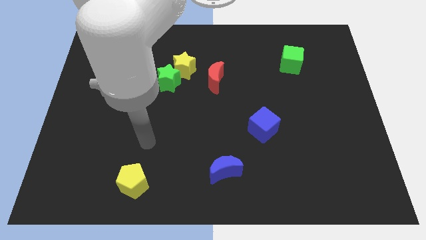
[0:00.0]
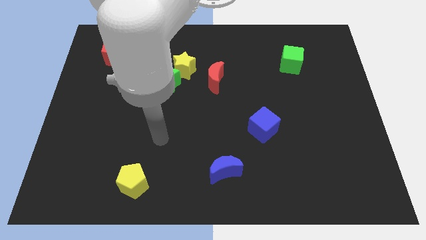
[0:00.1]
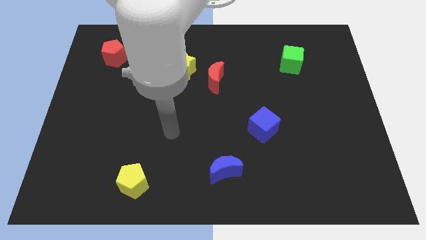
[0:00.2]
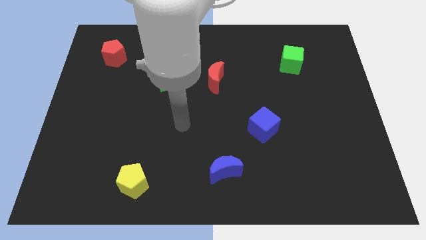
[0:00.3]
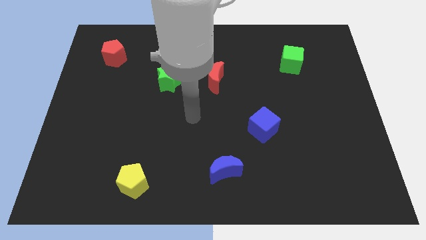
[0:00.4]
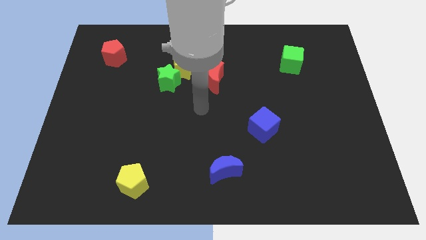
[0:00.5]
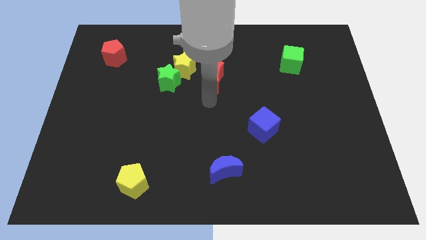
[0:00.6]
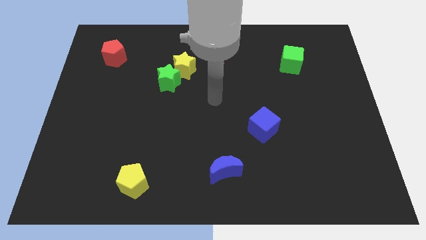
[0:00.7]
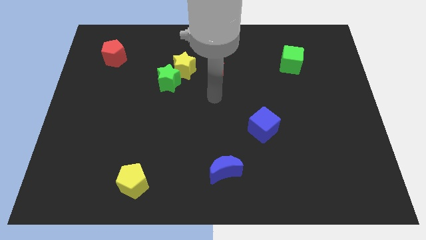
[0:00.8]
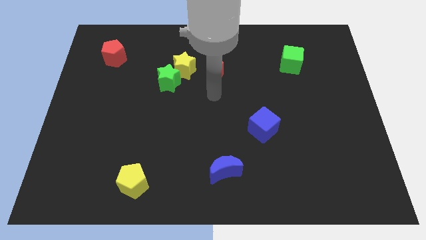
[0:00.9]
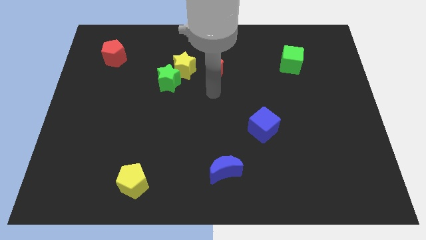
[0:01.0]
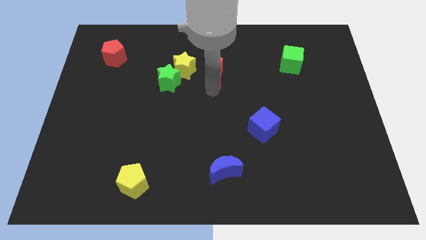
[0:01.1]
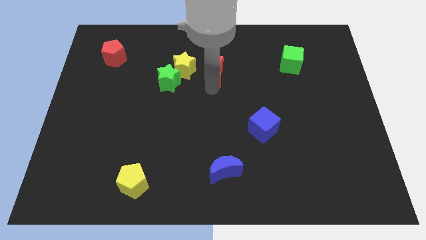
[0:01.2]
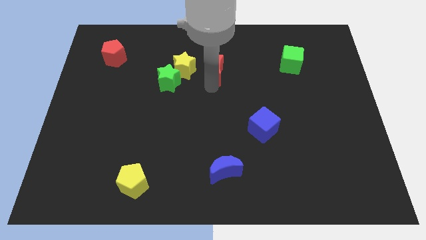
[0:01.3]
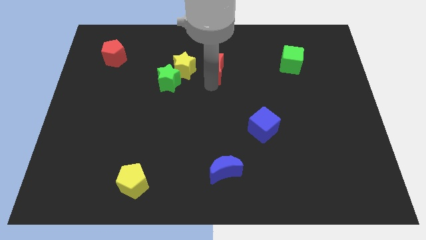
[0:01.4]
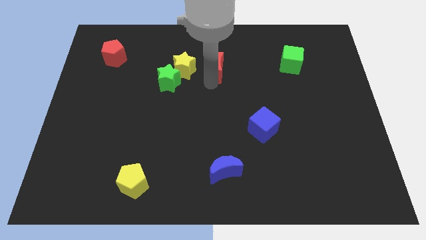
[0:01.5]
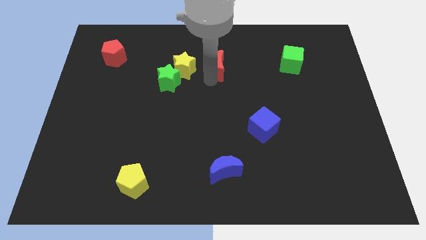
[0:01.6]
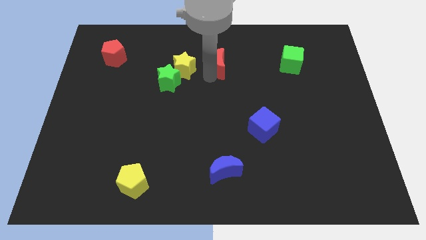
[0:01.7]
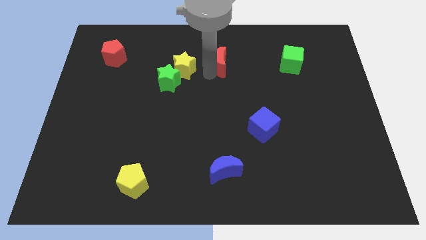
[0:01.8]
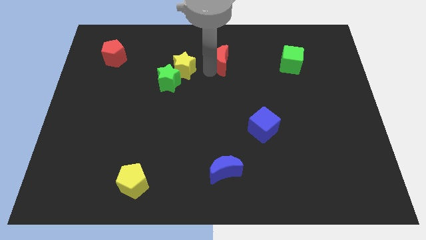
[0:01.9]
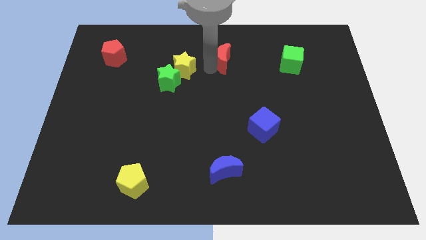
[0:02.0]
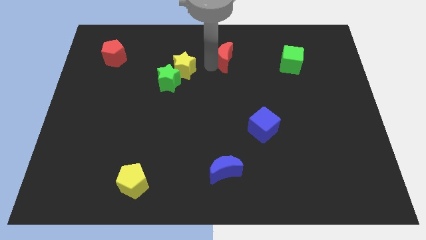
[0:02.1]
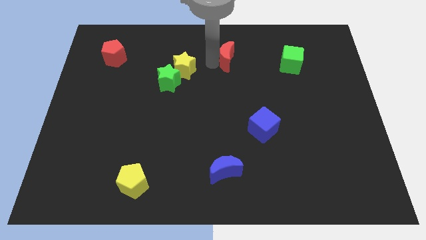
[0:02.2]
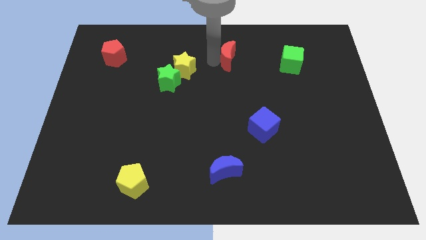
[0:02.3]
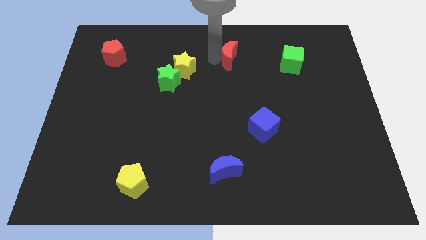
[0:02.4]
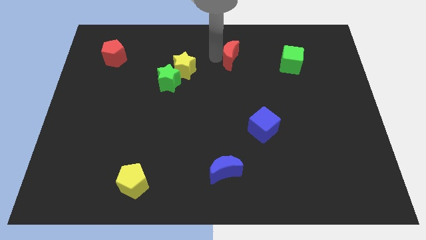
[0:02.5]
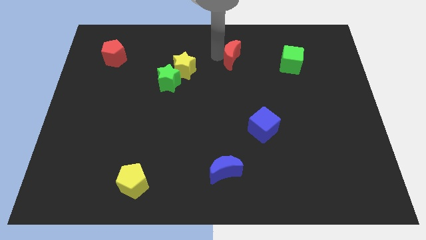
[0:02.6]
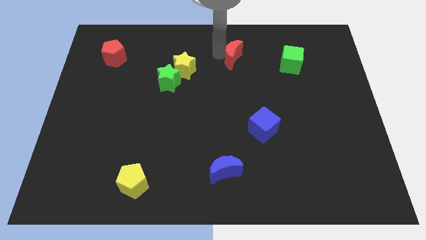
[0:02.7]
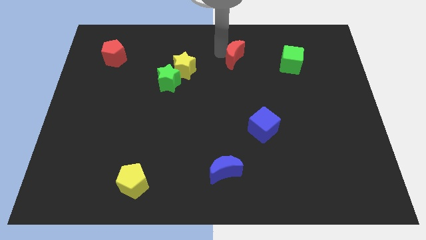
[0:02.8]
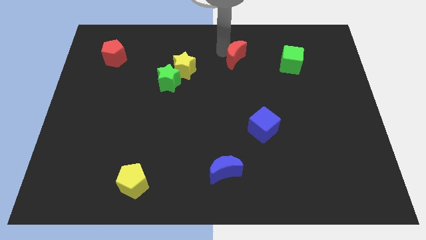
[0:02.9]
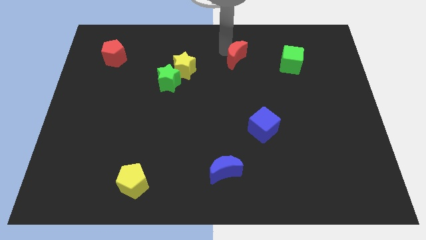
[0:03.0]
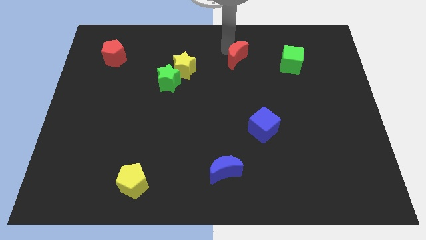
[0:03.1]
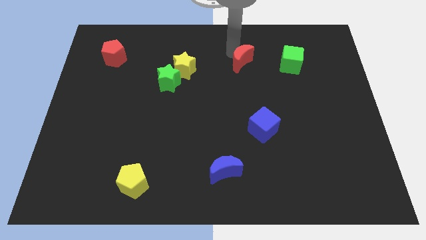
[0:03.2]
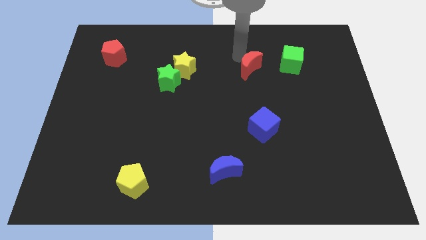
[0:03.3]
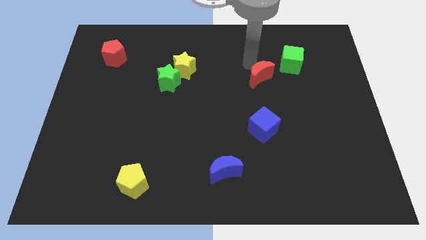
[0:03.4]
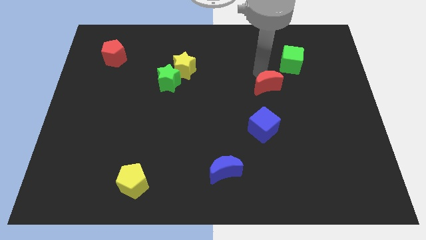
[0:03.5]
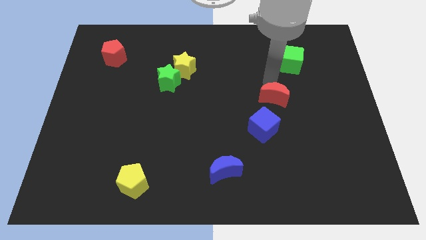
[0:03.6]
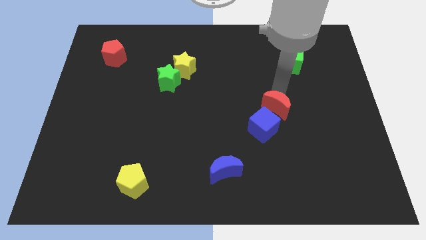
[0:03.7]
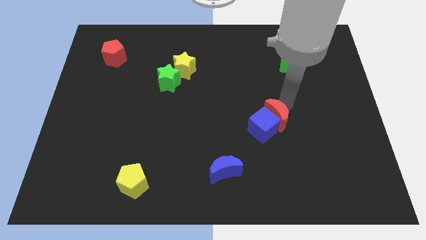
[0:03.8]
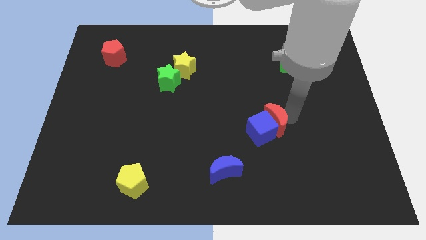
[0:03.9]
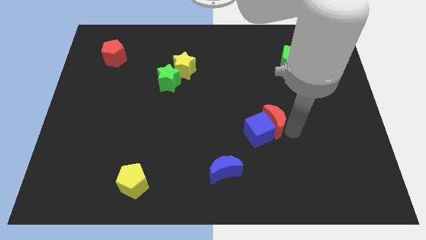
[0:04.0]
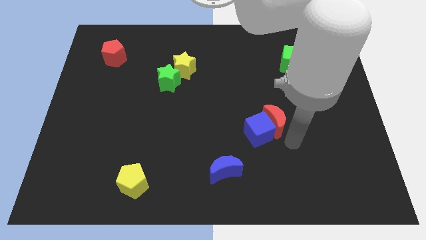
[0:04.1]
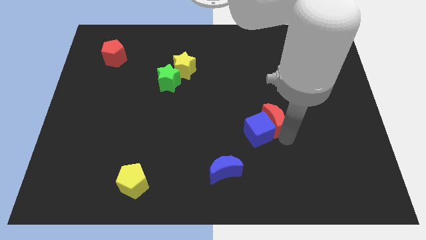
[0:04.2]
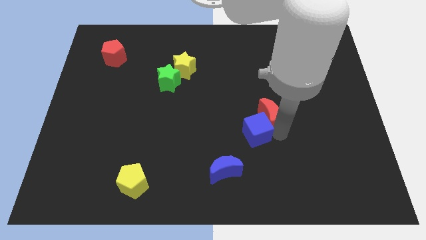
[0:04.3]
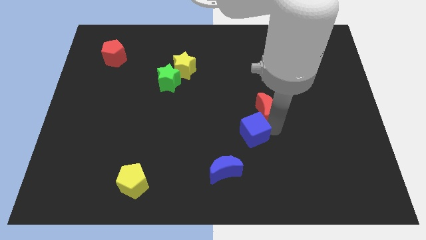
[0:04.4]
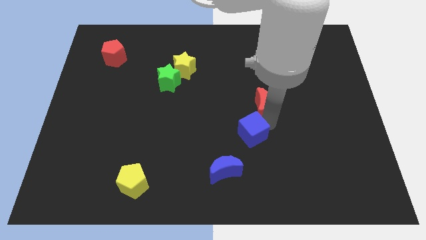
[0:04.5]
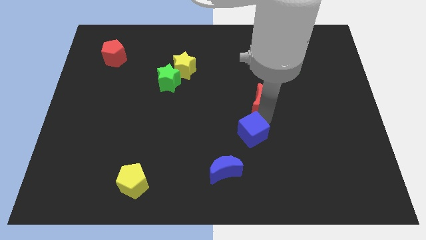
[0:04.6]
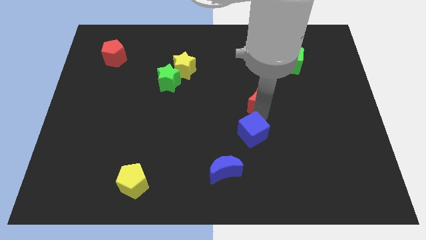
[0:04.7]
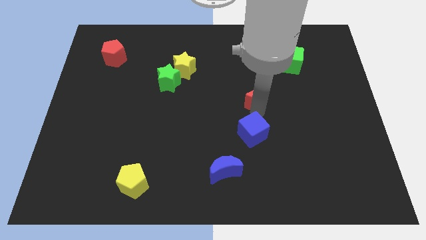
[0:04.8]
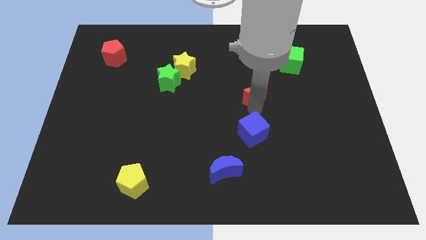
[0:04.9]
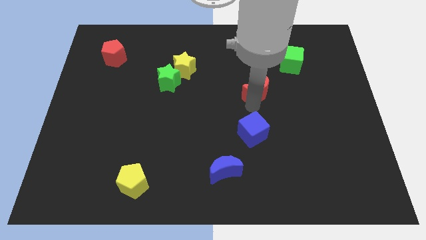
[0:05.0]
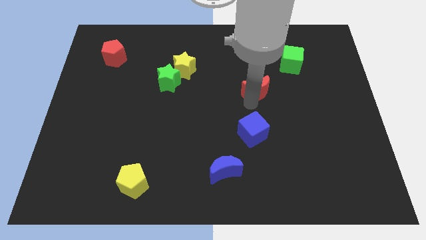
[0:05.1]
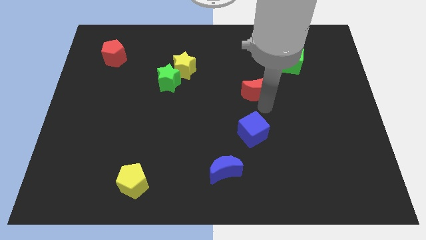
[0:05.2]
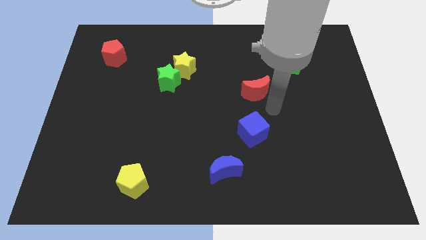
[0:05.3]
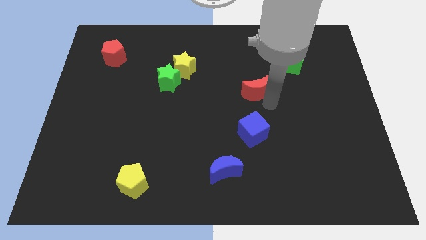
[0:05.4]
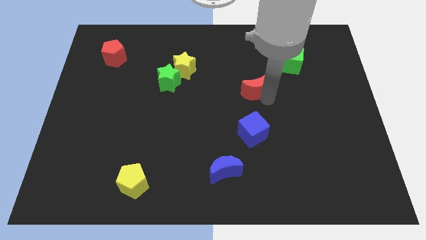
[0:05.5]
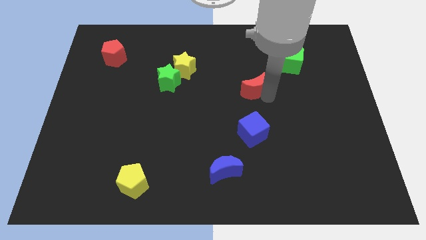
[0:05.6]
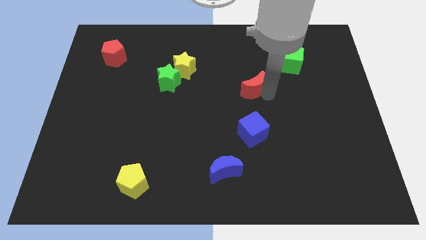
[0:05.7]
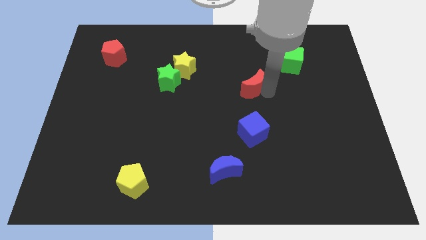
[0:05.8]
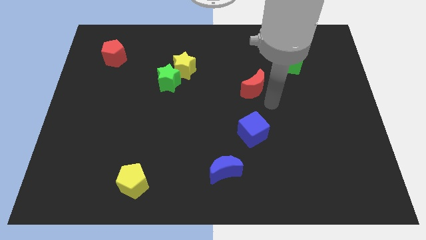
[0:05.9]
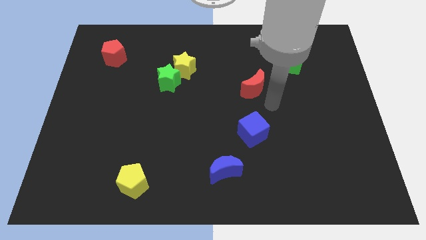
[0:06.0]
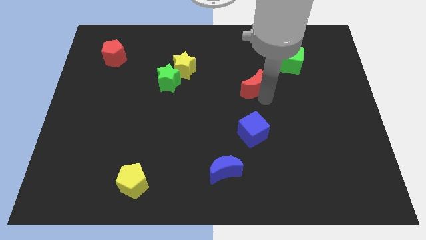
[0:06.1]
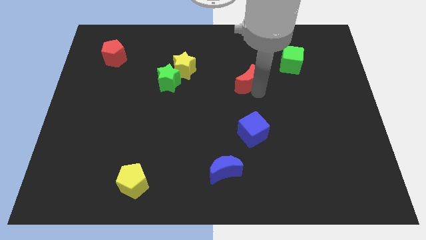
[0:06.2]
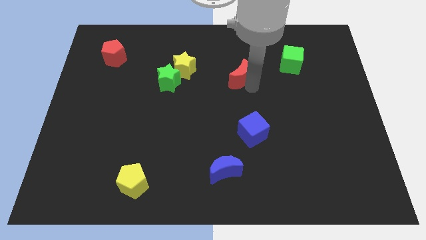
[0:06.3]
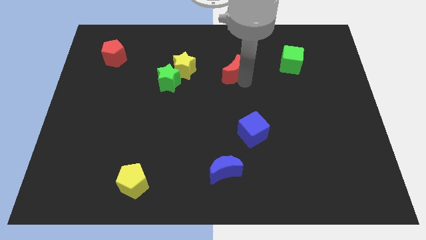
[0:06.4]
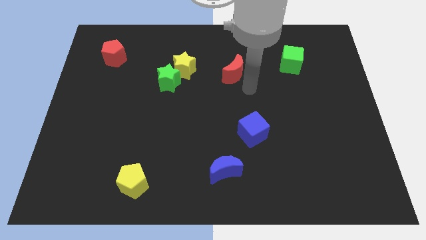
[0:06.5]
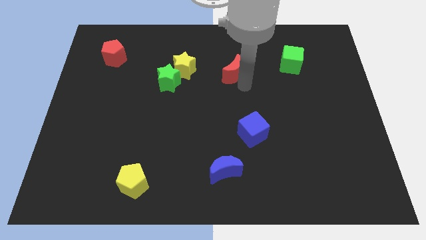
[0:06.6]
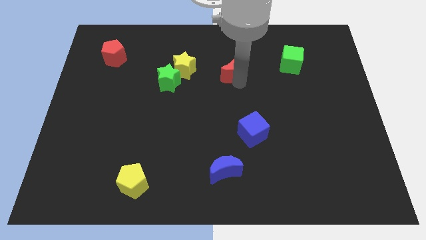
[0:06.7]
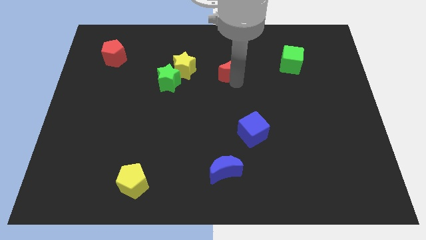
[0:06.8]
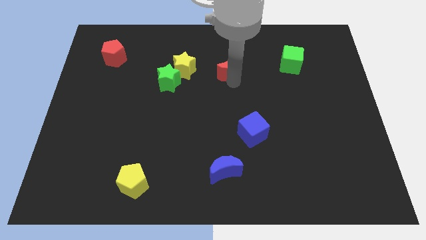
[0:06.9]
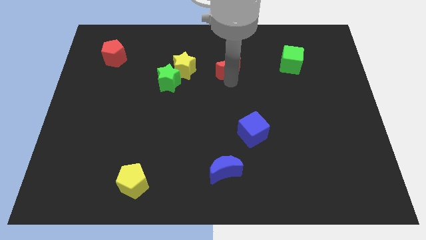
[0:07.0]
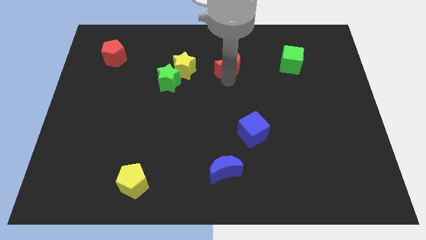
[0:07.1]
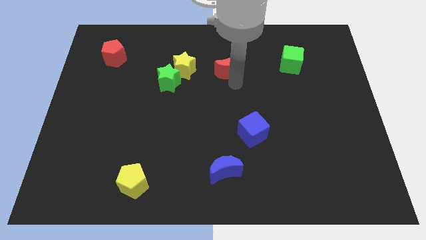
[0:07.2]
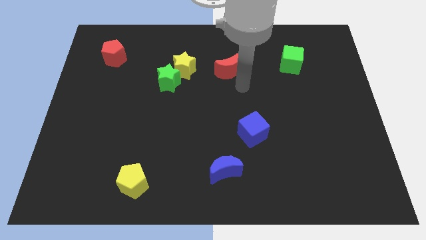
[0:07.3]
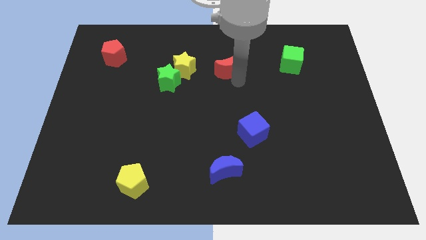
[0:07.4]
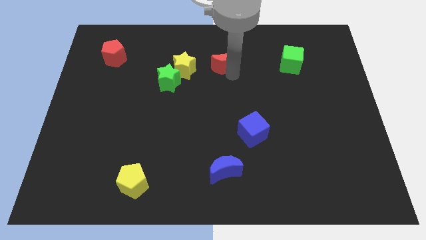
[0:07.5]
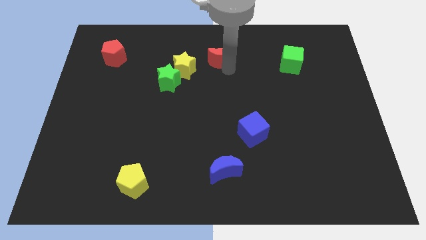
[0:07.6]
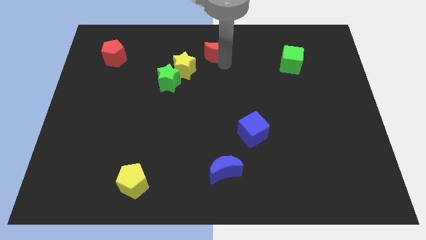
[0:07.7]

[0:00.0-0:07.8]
move the red moon to the top side
